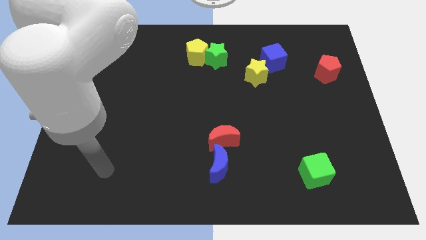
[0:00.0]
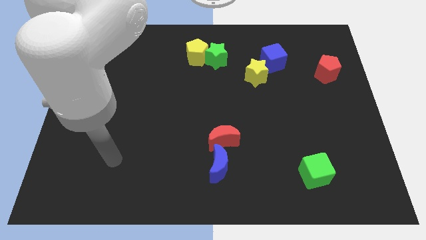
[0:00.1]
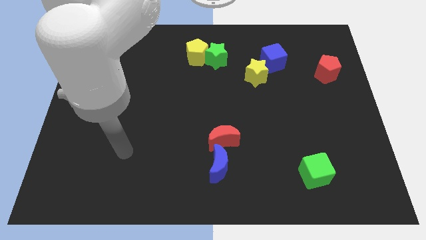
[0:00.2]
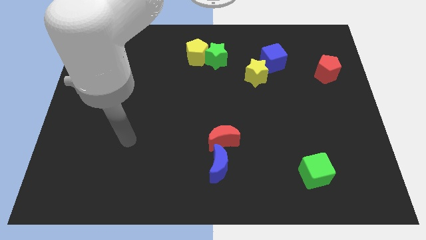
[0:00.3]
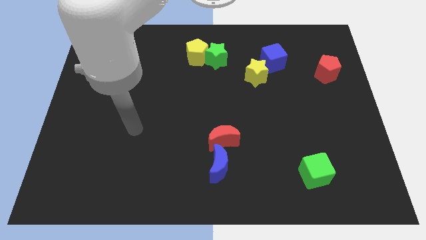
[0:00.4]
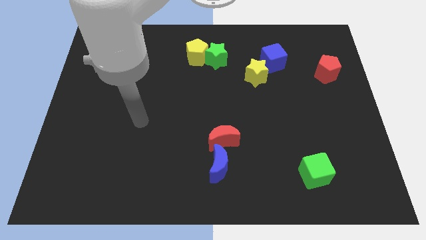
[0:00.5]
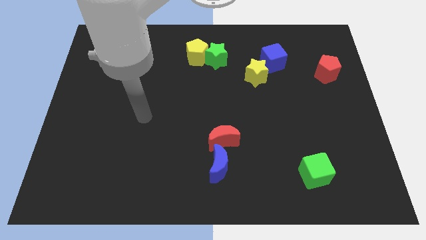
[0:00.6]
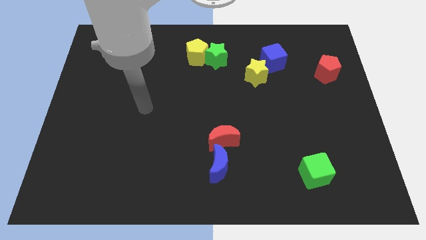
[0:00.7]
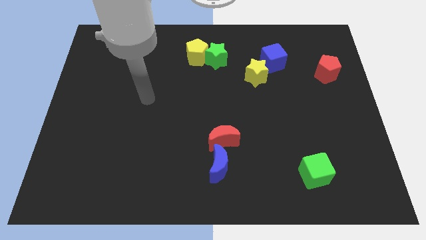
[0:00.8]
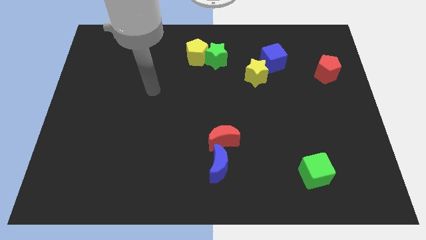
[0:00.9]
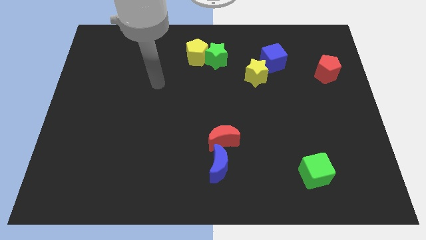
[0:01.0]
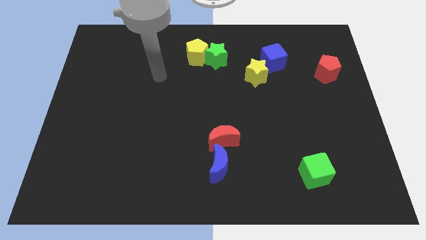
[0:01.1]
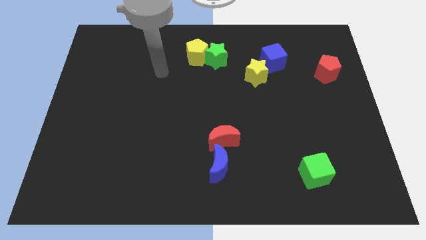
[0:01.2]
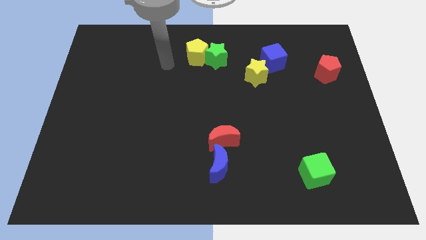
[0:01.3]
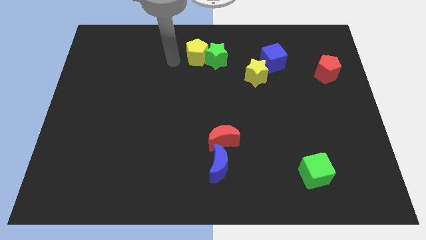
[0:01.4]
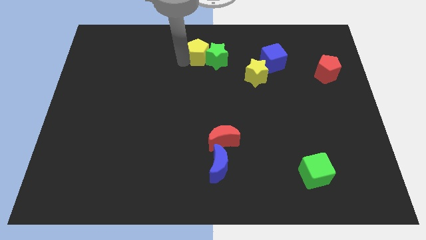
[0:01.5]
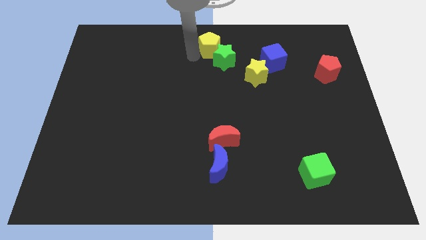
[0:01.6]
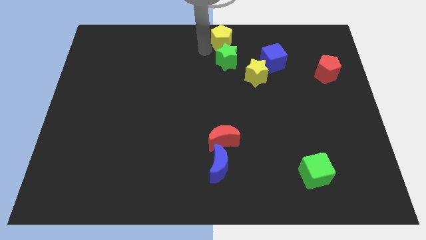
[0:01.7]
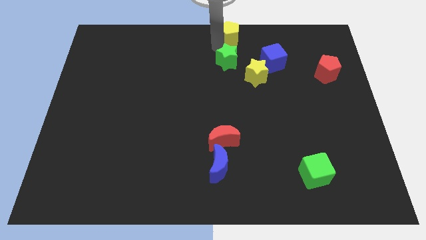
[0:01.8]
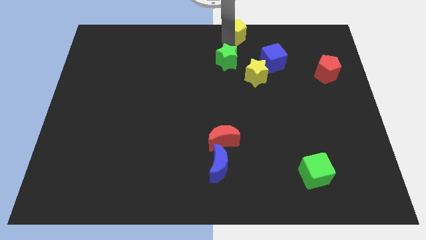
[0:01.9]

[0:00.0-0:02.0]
pull the green star apart from the yellow pentagon

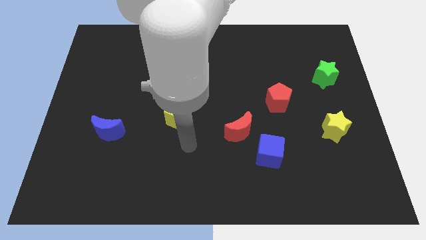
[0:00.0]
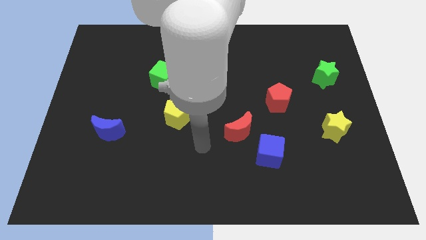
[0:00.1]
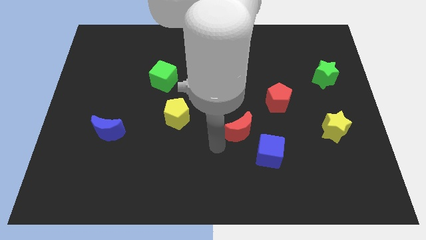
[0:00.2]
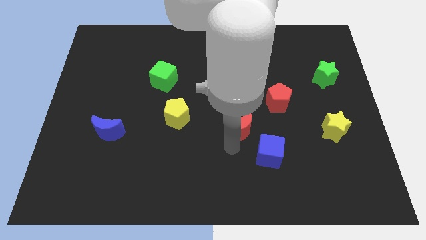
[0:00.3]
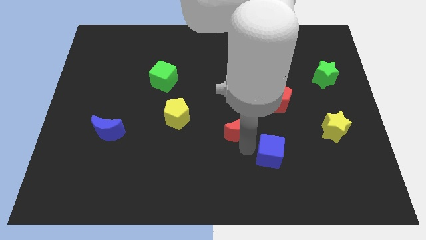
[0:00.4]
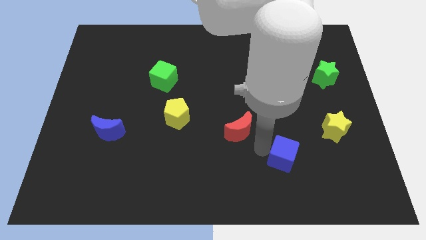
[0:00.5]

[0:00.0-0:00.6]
move the red moon away from the blue cube

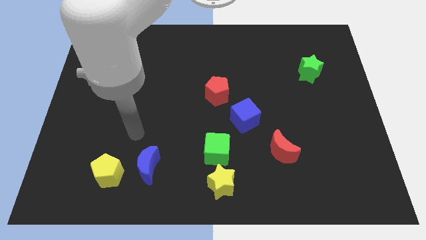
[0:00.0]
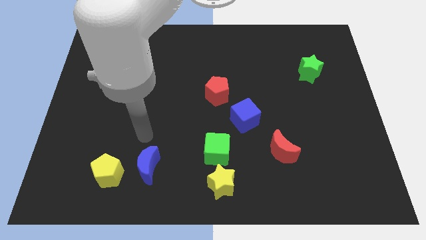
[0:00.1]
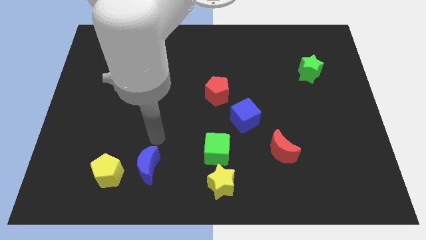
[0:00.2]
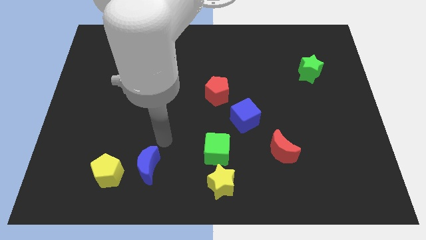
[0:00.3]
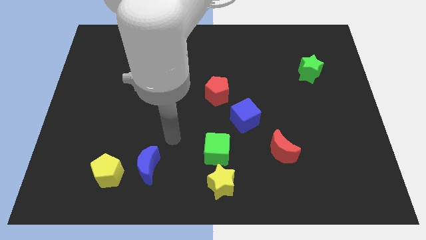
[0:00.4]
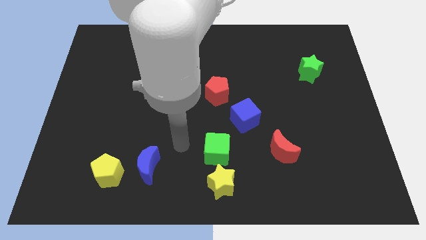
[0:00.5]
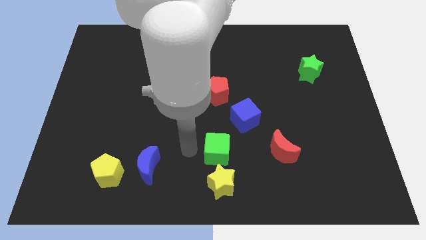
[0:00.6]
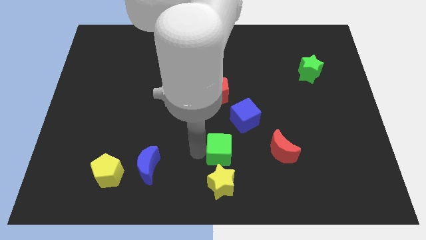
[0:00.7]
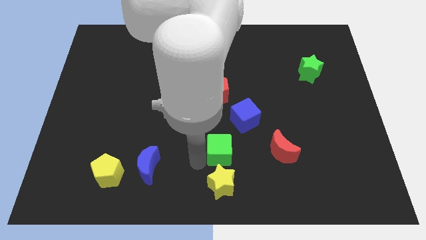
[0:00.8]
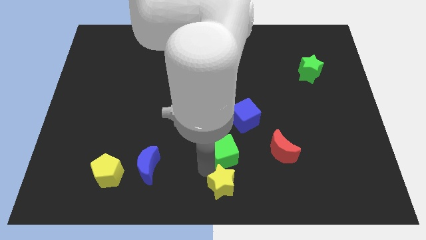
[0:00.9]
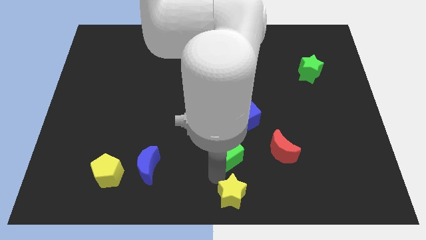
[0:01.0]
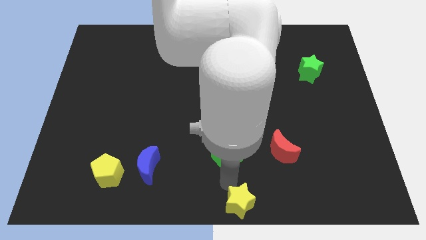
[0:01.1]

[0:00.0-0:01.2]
pull the green cube apart from the yellow star

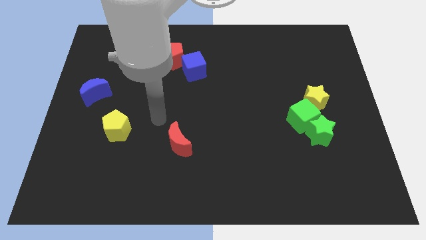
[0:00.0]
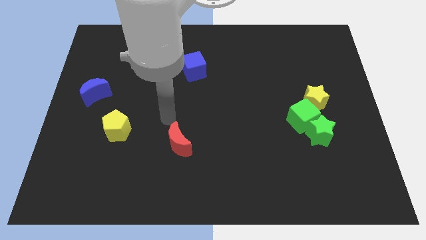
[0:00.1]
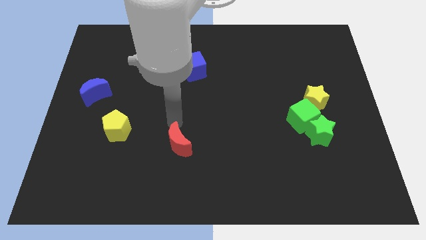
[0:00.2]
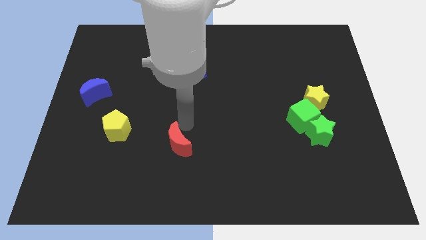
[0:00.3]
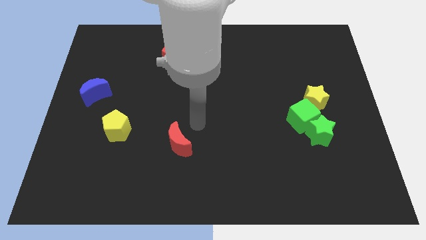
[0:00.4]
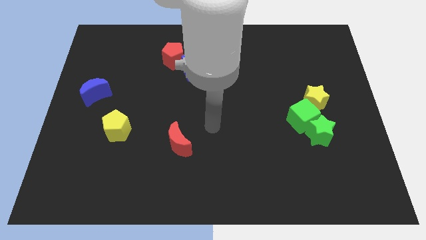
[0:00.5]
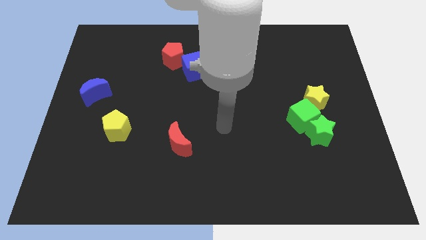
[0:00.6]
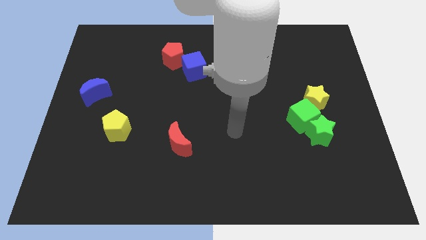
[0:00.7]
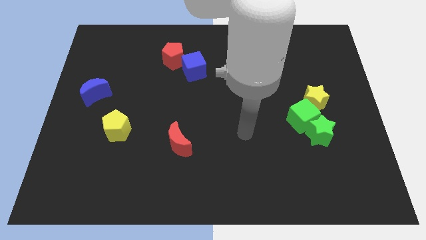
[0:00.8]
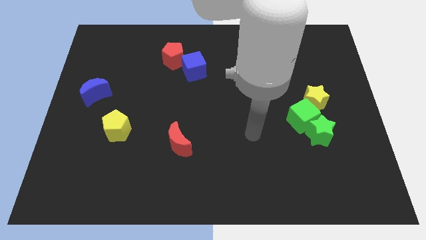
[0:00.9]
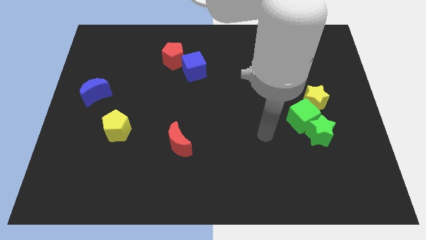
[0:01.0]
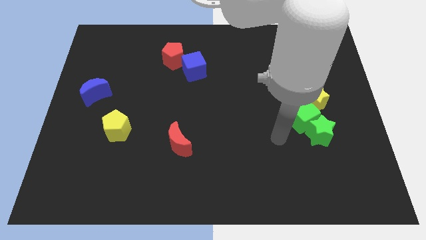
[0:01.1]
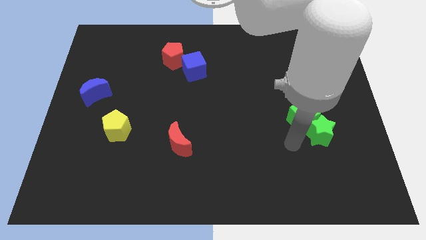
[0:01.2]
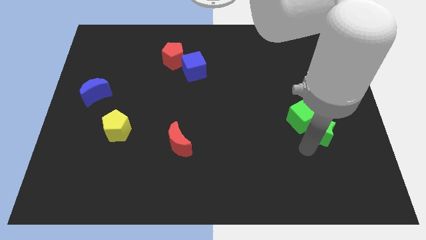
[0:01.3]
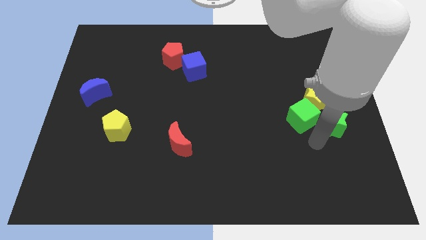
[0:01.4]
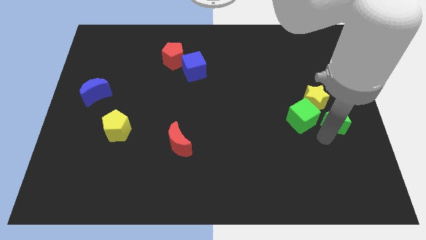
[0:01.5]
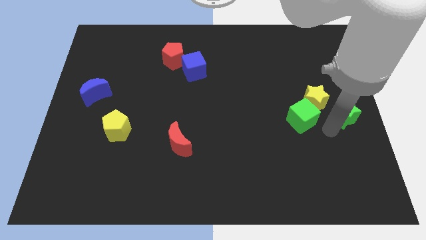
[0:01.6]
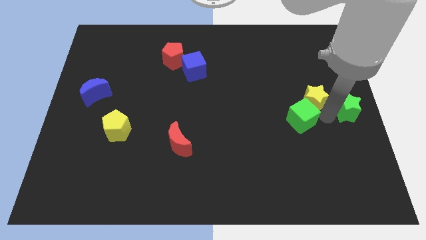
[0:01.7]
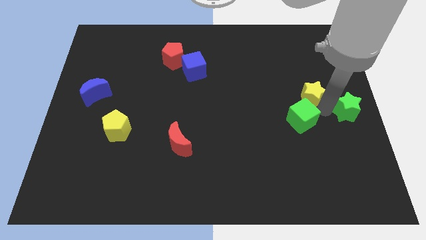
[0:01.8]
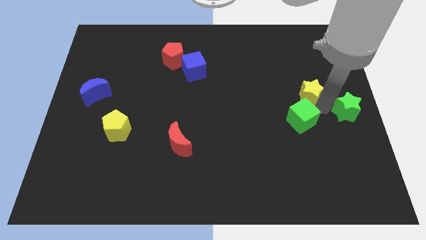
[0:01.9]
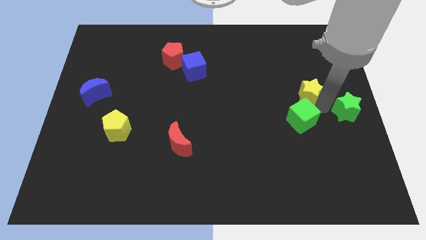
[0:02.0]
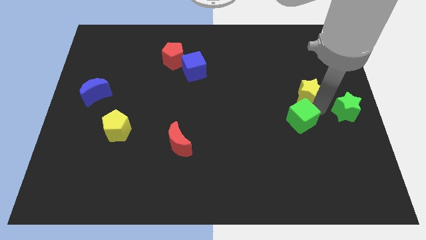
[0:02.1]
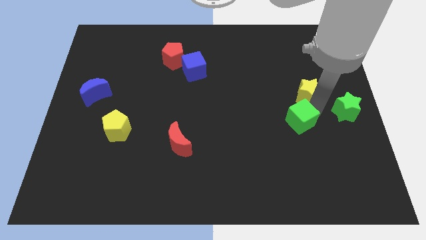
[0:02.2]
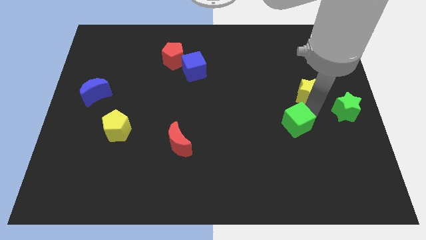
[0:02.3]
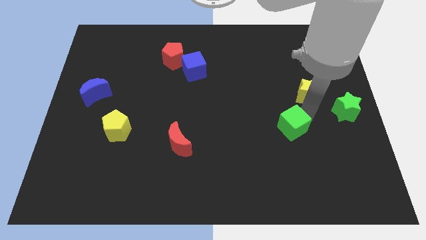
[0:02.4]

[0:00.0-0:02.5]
separate the green cube from the green star and yellow star

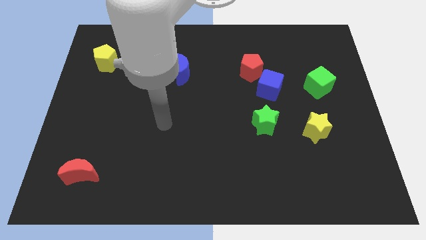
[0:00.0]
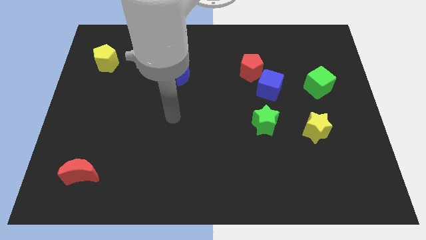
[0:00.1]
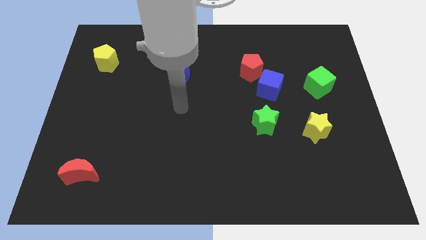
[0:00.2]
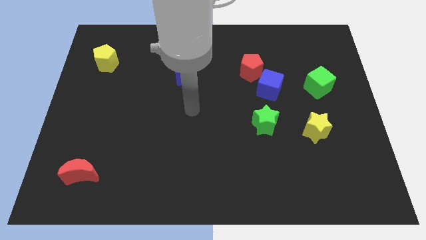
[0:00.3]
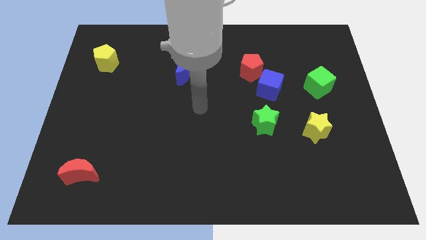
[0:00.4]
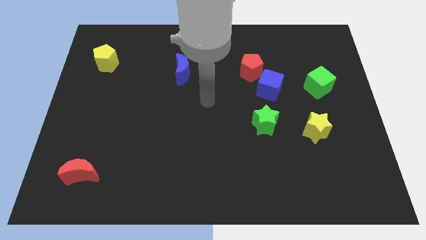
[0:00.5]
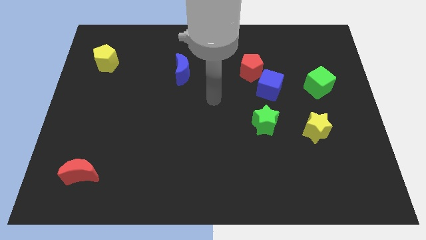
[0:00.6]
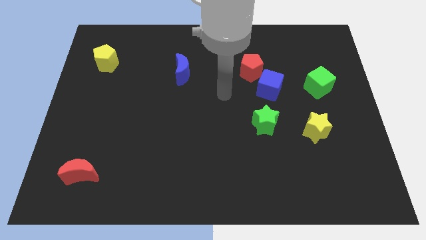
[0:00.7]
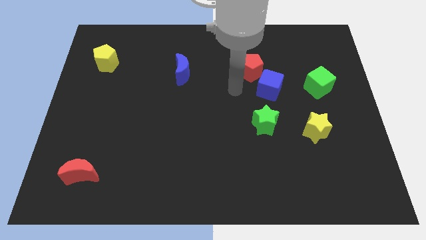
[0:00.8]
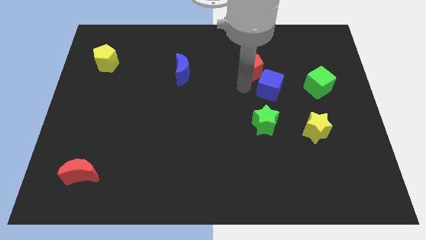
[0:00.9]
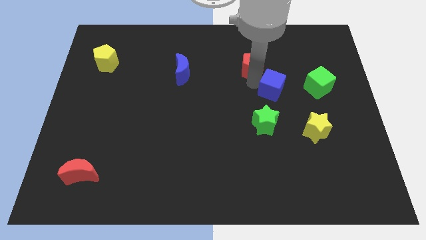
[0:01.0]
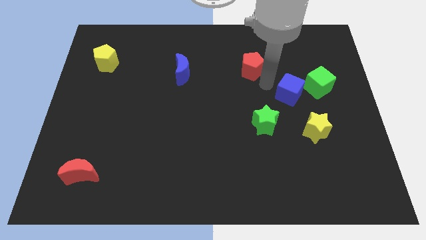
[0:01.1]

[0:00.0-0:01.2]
move the red pentagon away from the blue cube

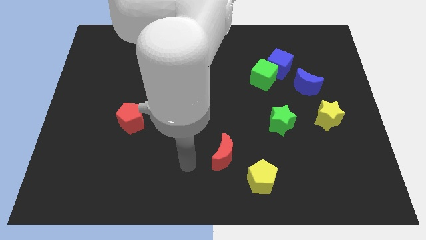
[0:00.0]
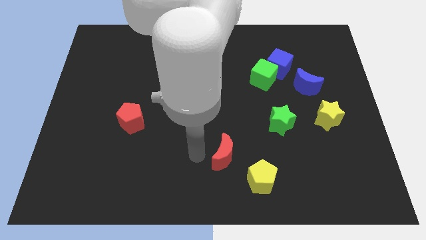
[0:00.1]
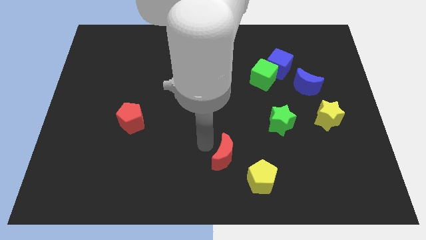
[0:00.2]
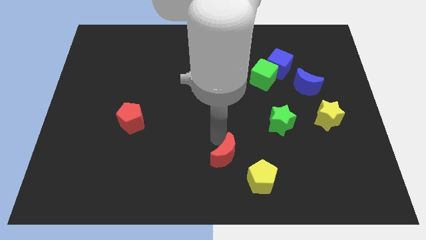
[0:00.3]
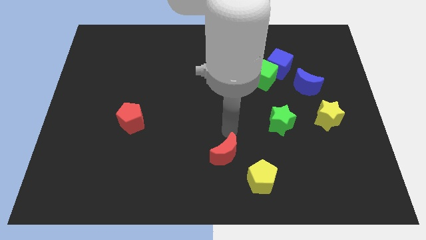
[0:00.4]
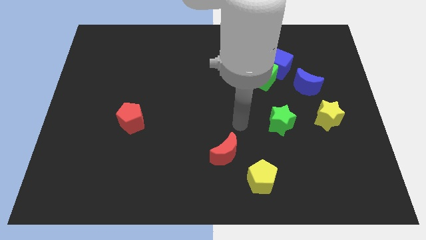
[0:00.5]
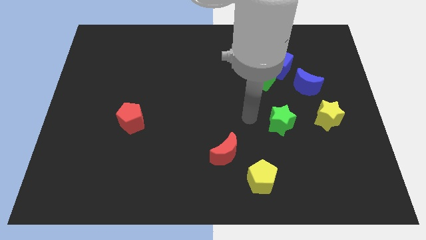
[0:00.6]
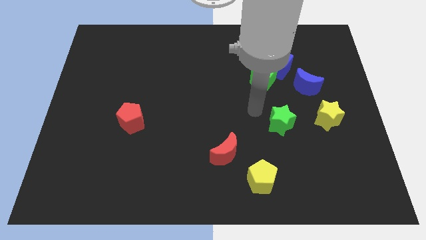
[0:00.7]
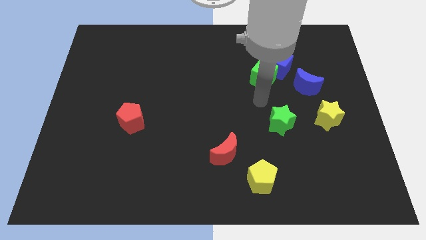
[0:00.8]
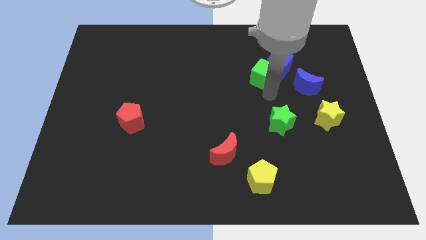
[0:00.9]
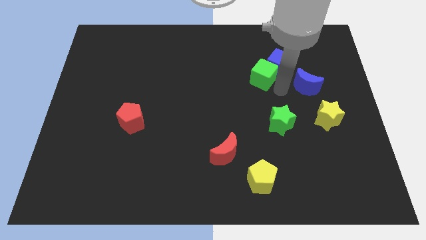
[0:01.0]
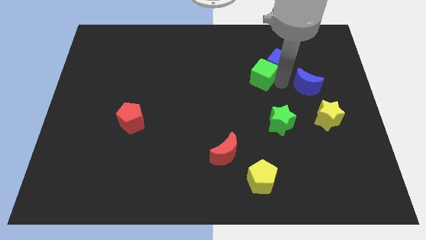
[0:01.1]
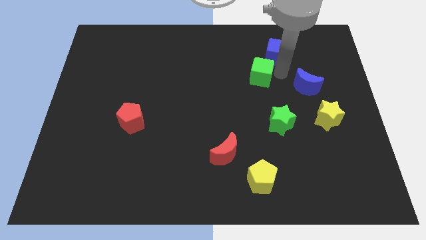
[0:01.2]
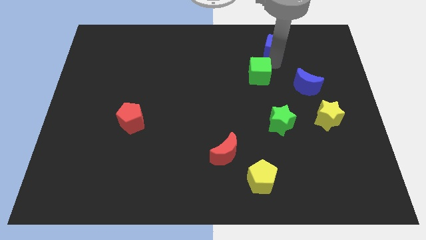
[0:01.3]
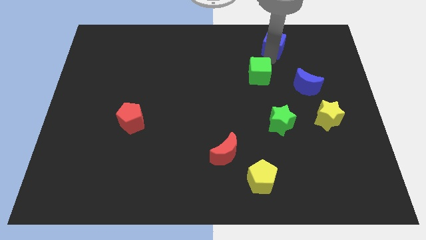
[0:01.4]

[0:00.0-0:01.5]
separate the green cube from the blue cube

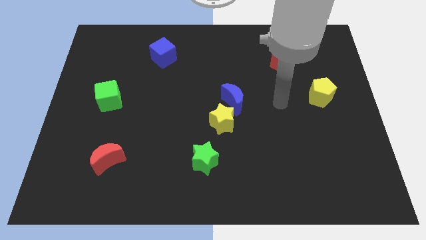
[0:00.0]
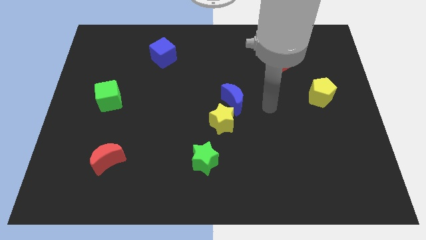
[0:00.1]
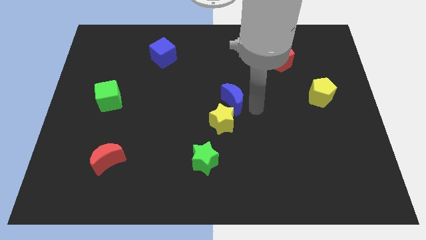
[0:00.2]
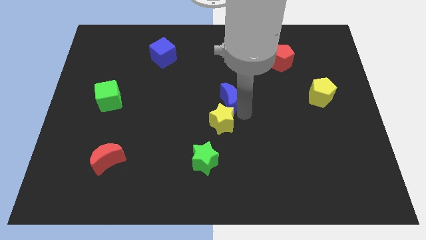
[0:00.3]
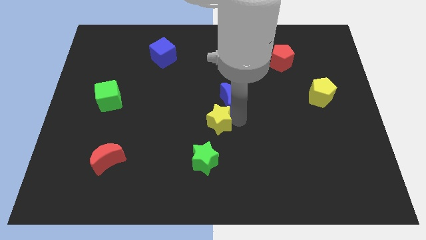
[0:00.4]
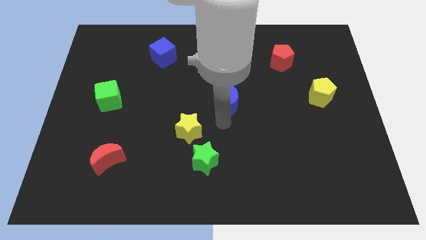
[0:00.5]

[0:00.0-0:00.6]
pull the blue moon apart from the yellow star
